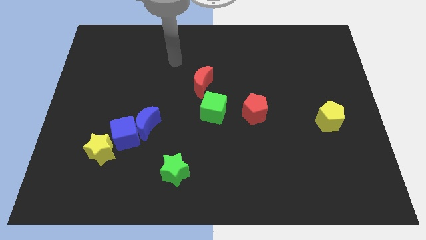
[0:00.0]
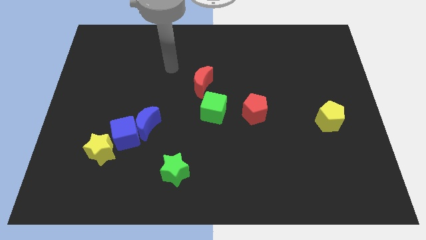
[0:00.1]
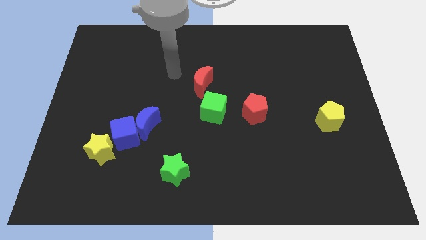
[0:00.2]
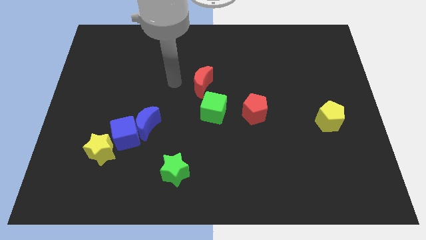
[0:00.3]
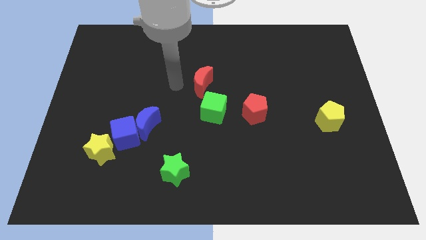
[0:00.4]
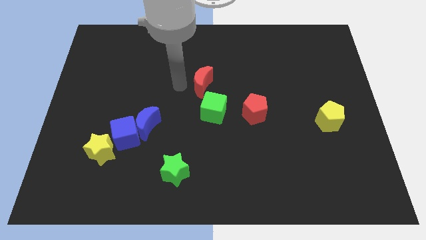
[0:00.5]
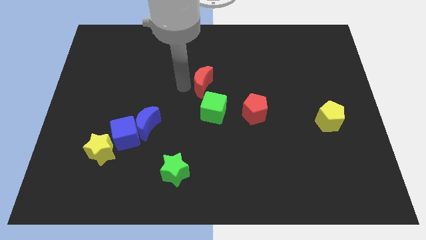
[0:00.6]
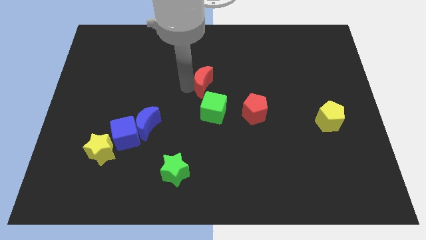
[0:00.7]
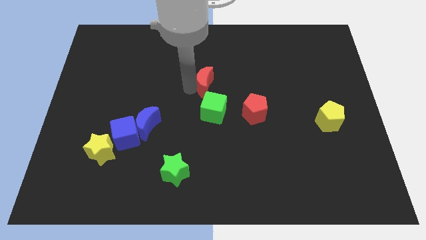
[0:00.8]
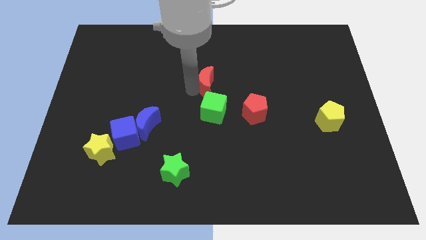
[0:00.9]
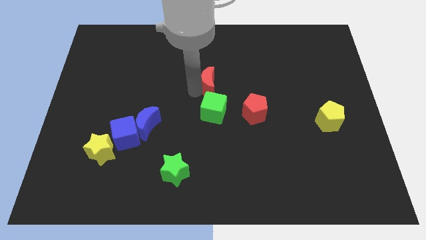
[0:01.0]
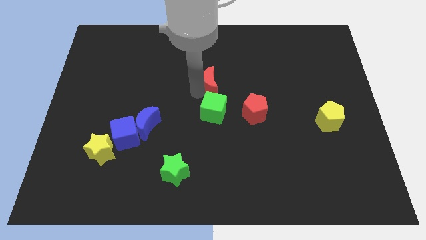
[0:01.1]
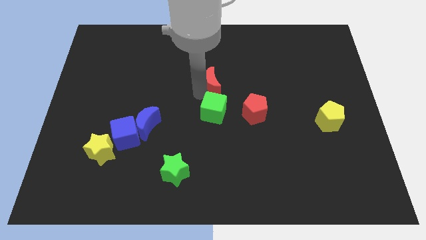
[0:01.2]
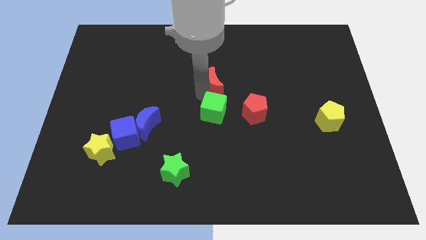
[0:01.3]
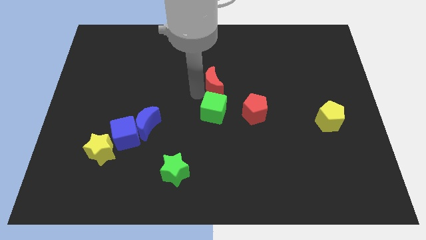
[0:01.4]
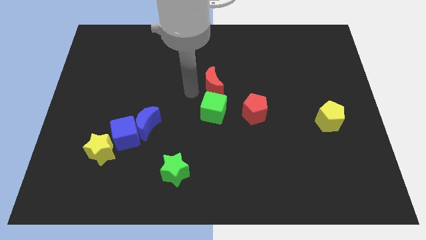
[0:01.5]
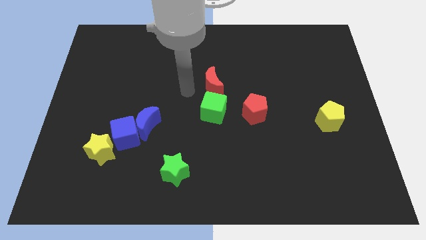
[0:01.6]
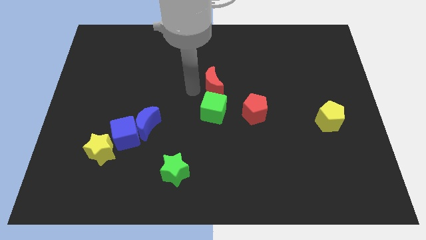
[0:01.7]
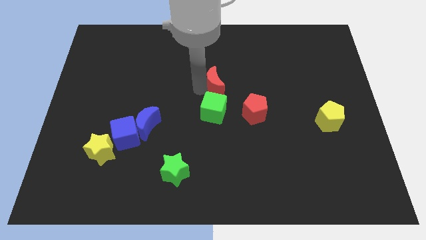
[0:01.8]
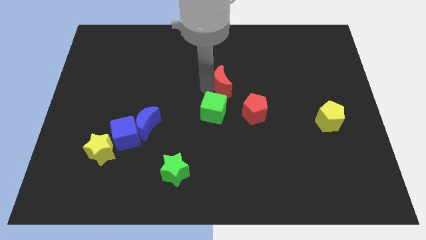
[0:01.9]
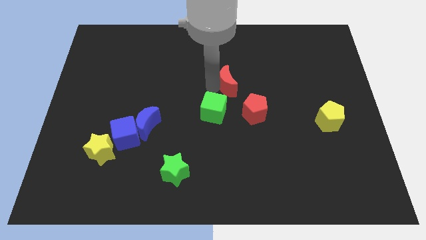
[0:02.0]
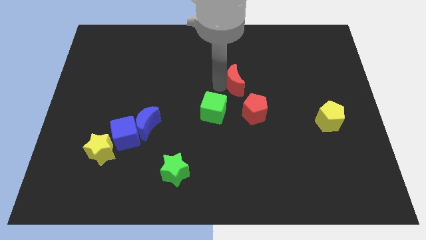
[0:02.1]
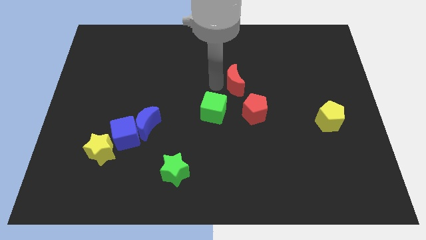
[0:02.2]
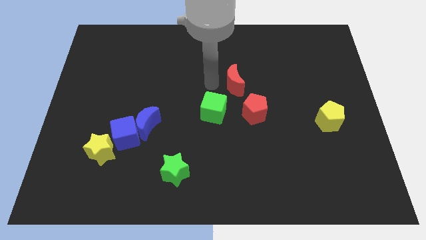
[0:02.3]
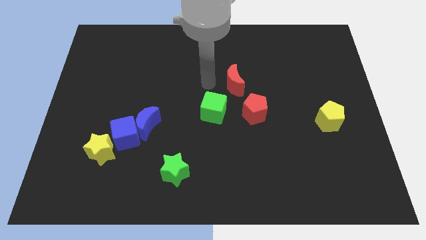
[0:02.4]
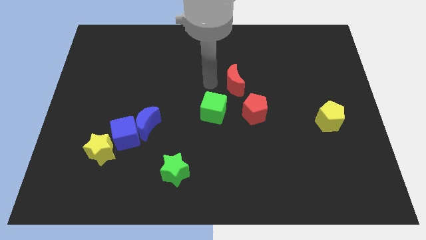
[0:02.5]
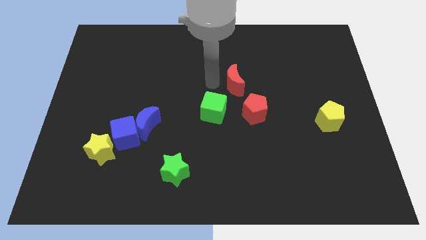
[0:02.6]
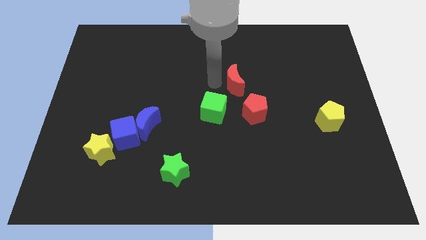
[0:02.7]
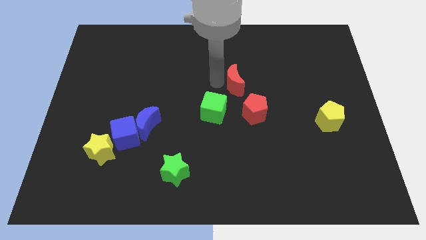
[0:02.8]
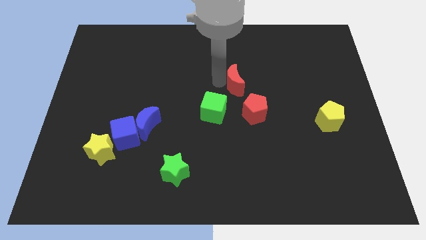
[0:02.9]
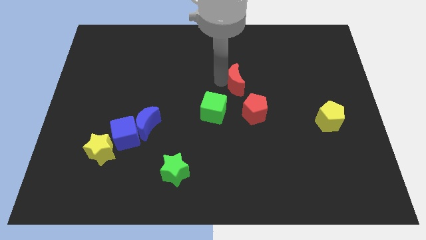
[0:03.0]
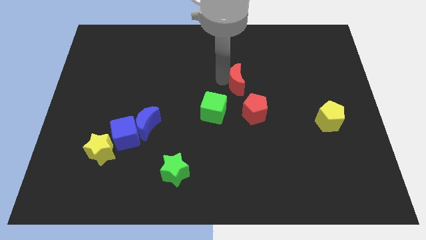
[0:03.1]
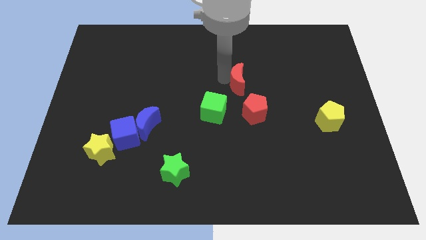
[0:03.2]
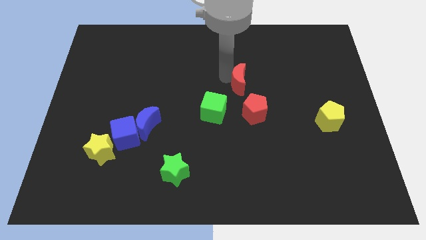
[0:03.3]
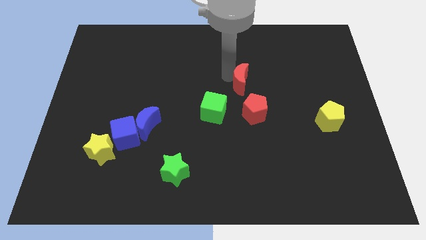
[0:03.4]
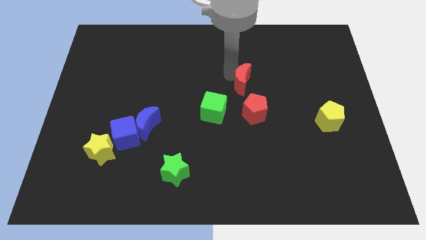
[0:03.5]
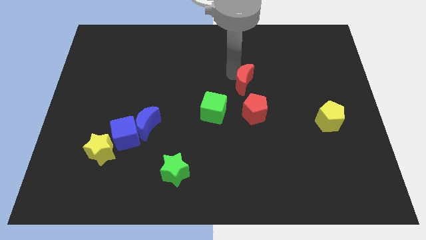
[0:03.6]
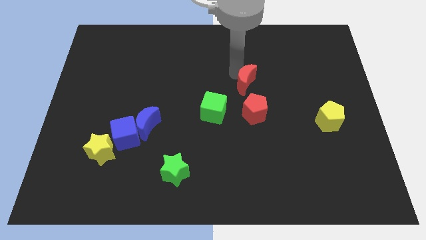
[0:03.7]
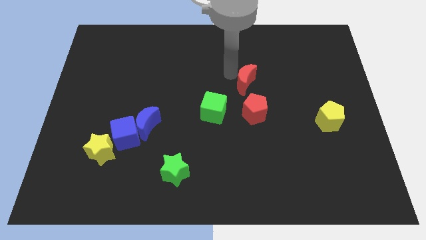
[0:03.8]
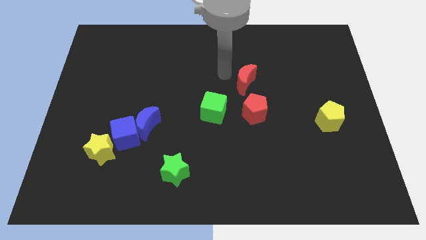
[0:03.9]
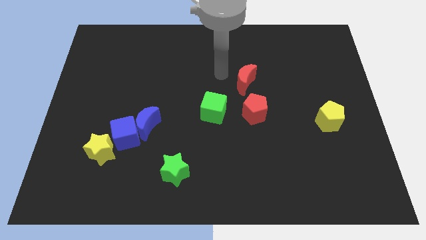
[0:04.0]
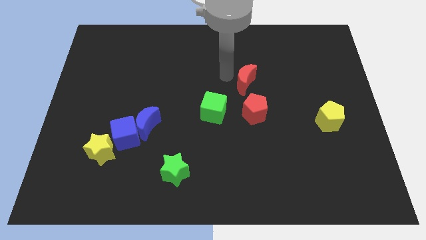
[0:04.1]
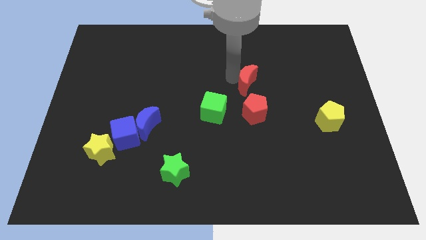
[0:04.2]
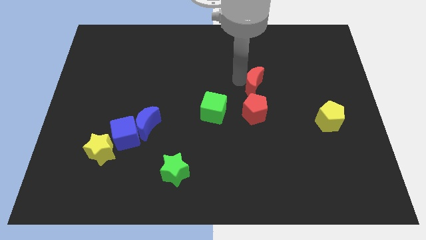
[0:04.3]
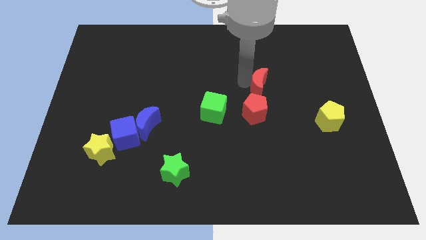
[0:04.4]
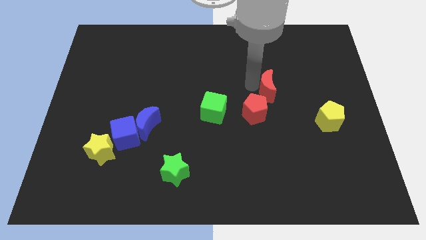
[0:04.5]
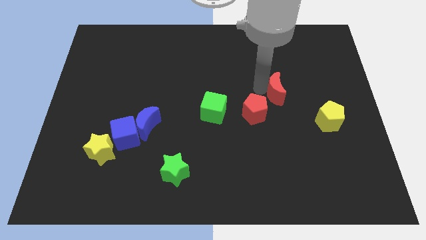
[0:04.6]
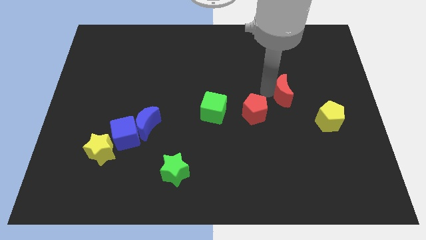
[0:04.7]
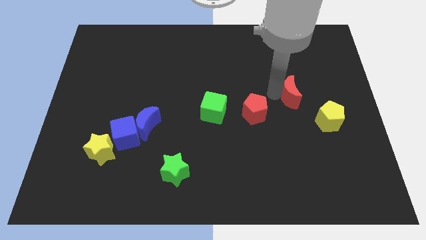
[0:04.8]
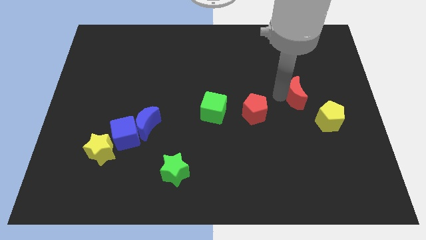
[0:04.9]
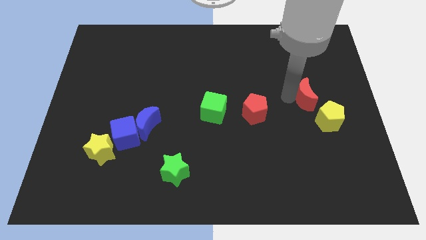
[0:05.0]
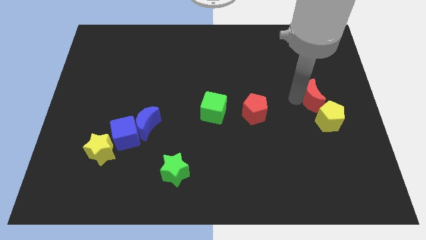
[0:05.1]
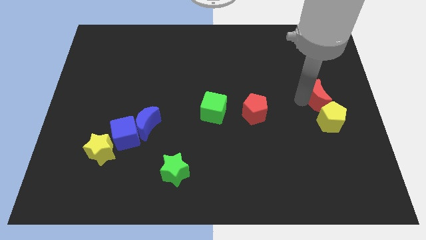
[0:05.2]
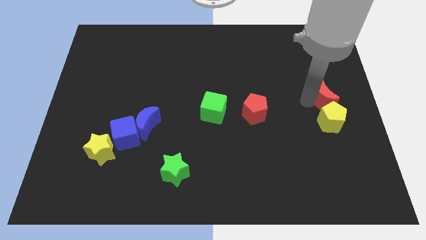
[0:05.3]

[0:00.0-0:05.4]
move the red moon to the right side of the board

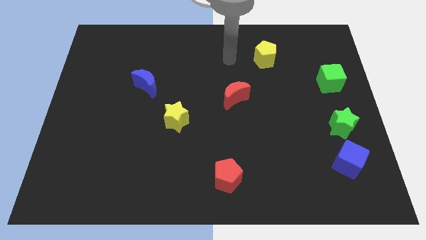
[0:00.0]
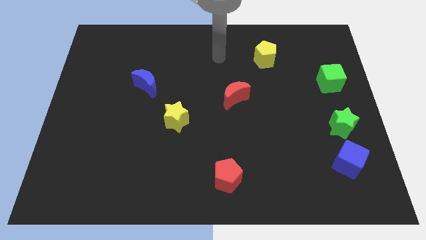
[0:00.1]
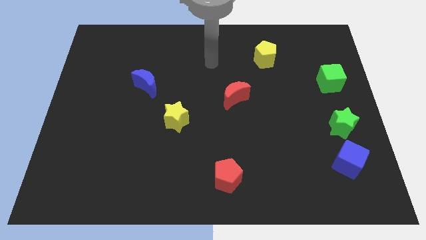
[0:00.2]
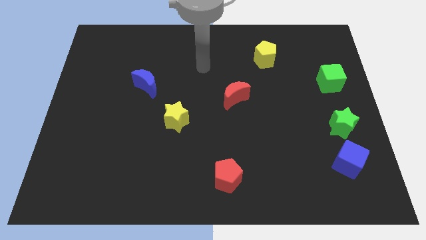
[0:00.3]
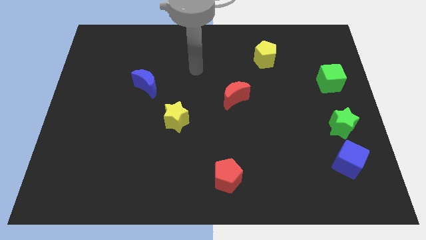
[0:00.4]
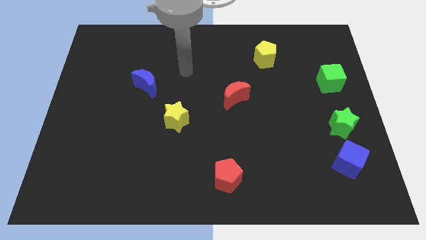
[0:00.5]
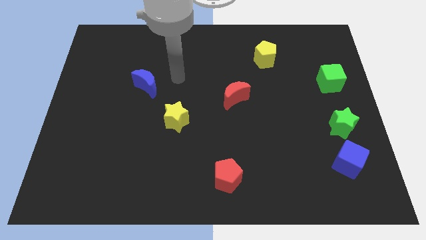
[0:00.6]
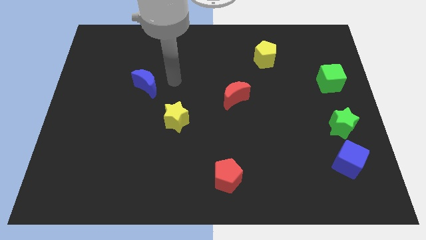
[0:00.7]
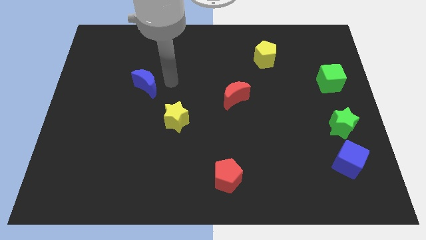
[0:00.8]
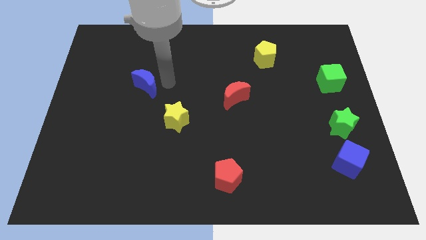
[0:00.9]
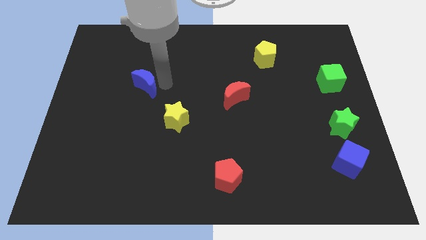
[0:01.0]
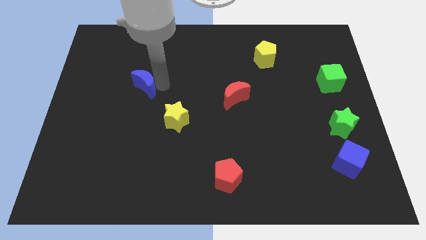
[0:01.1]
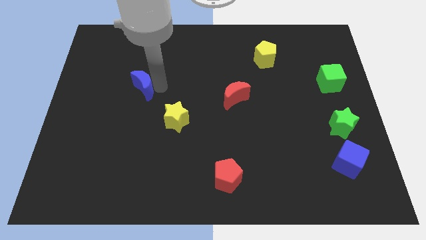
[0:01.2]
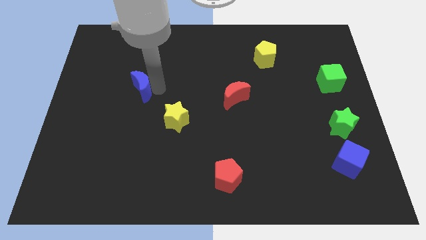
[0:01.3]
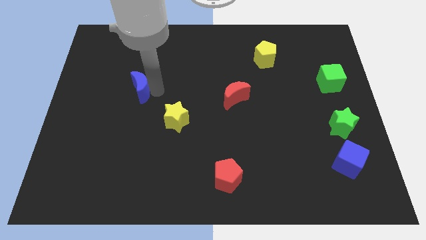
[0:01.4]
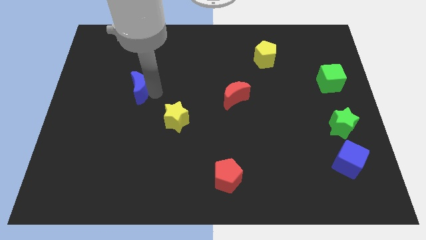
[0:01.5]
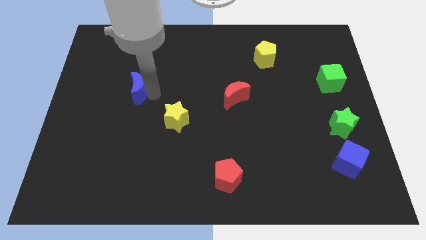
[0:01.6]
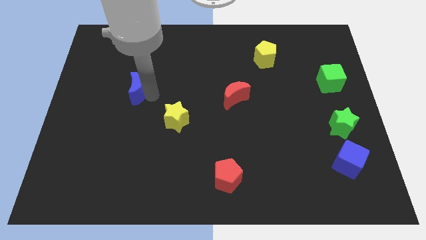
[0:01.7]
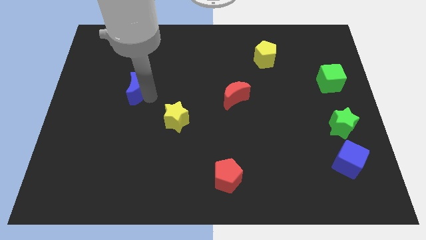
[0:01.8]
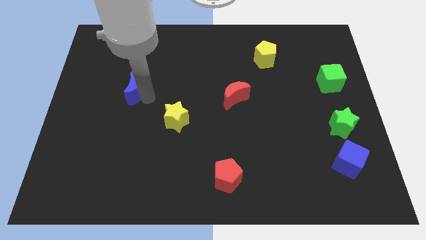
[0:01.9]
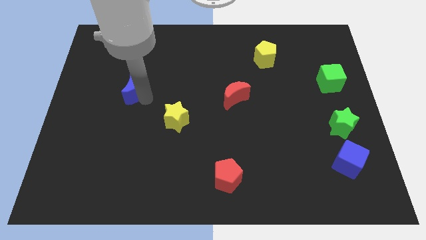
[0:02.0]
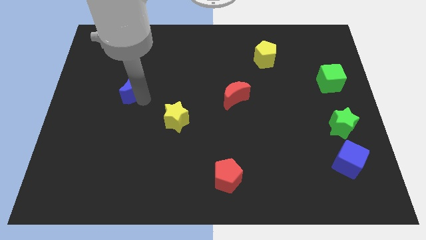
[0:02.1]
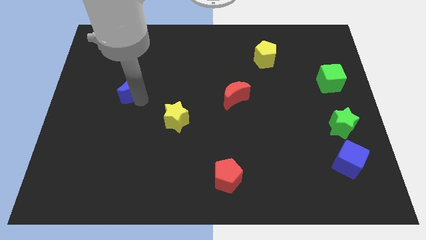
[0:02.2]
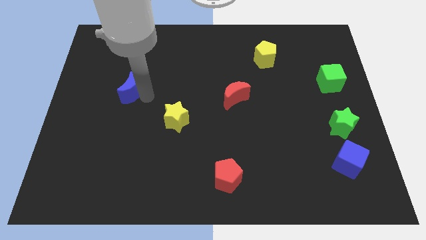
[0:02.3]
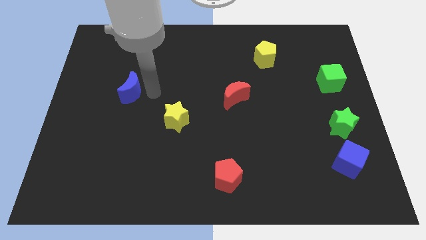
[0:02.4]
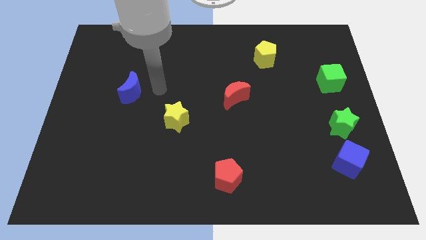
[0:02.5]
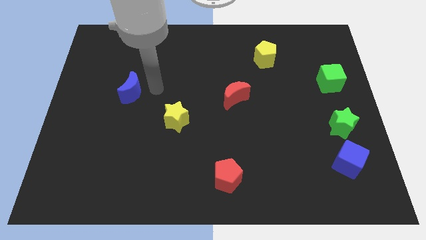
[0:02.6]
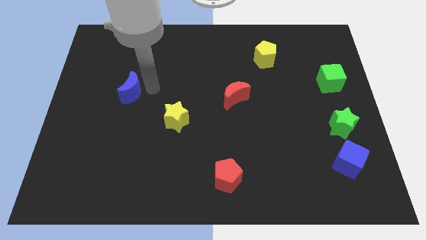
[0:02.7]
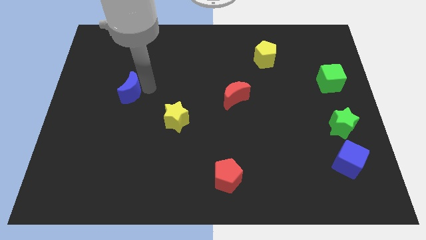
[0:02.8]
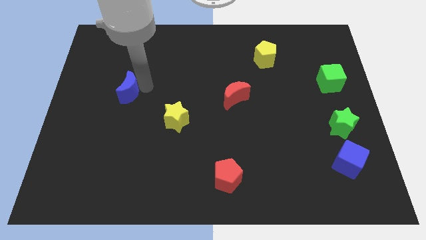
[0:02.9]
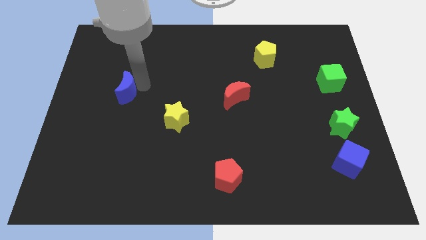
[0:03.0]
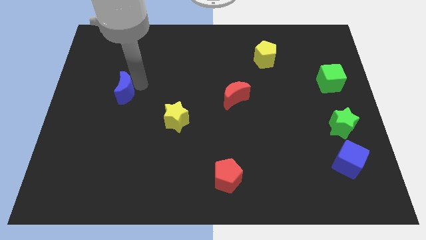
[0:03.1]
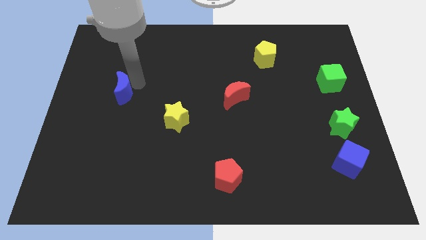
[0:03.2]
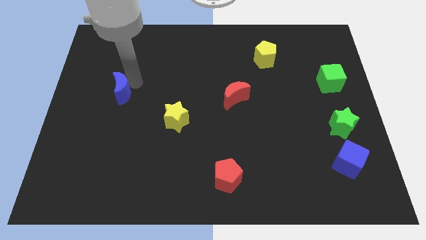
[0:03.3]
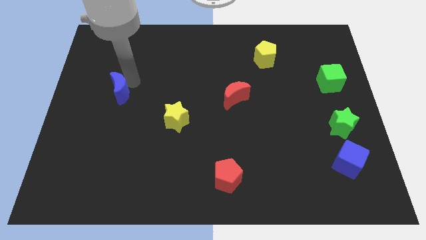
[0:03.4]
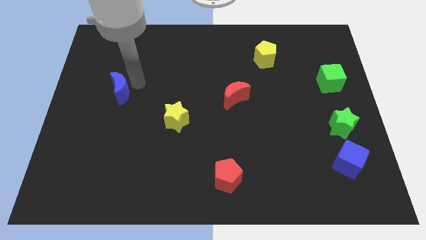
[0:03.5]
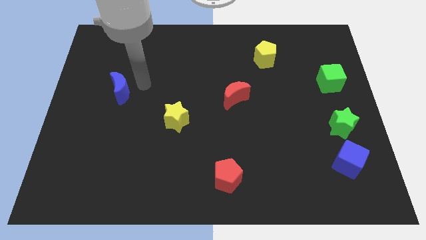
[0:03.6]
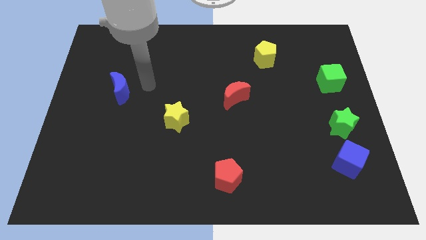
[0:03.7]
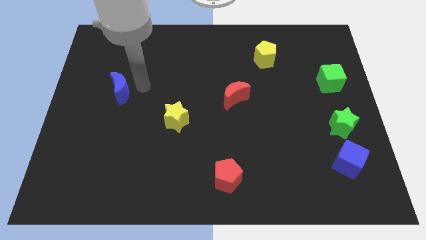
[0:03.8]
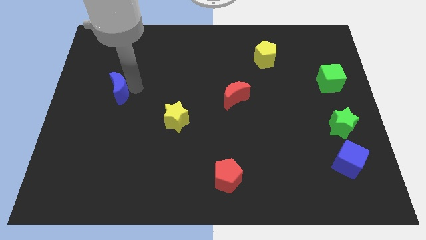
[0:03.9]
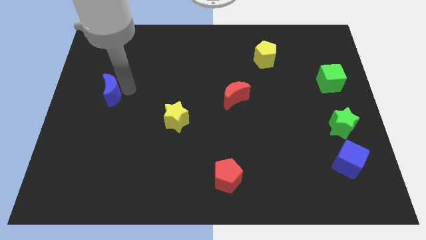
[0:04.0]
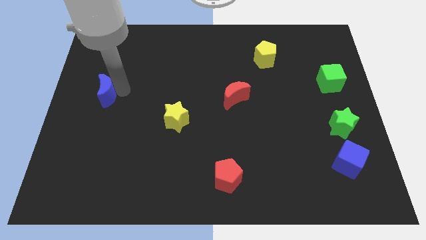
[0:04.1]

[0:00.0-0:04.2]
slide the blue moon to the center left
